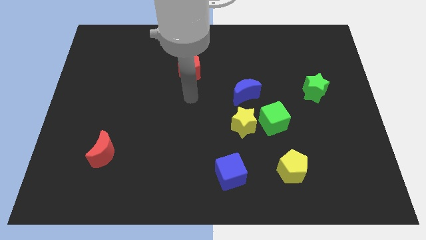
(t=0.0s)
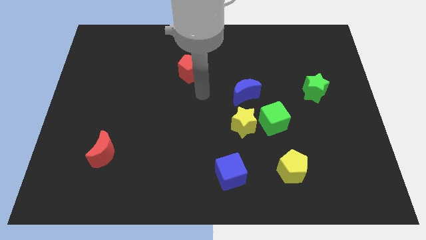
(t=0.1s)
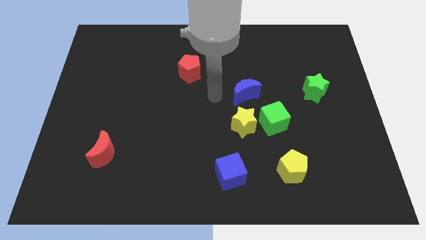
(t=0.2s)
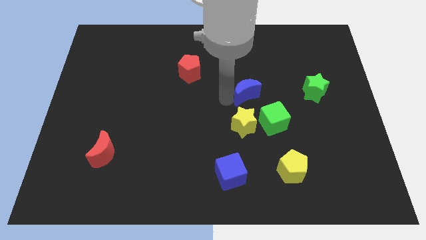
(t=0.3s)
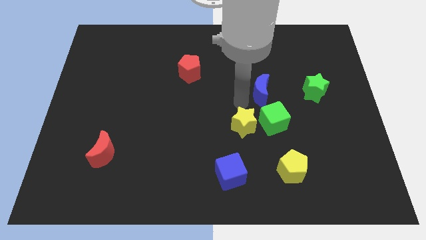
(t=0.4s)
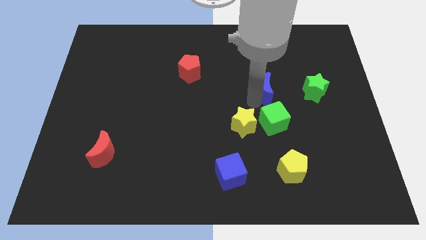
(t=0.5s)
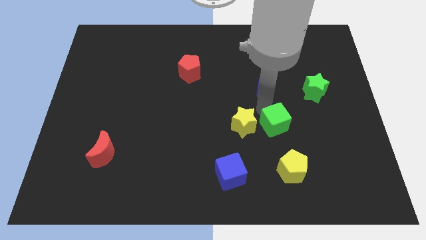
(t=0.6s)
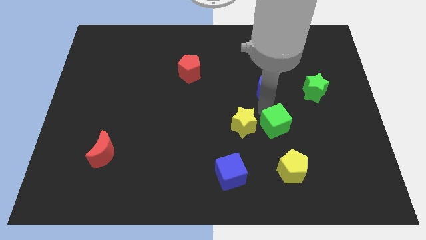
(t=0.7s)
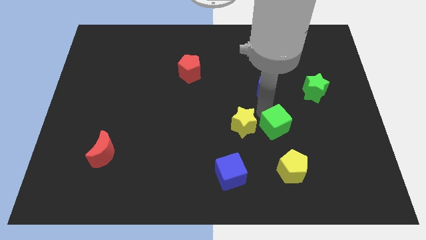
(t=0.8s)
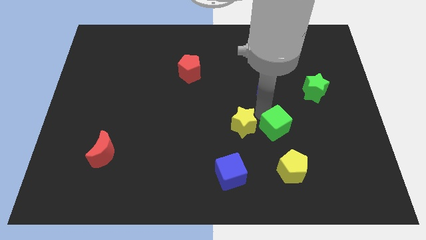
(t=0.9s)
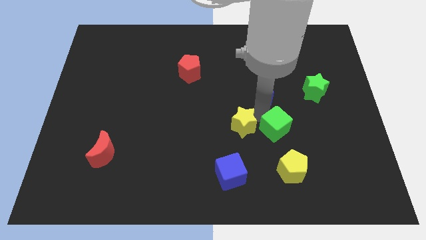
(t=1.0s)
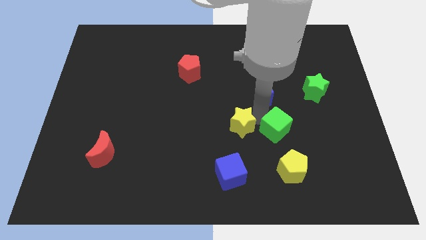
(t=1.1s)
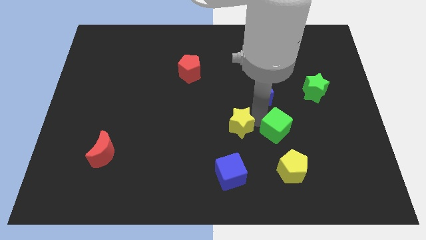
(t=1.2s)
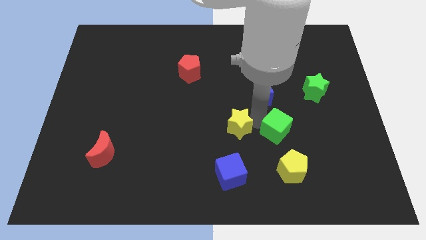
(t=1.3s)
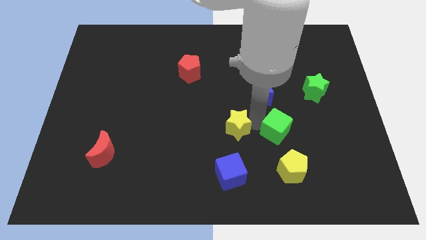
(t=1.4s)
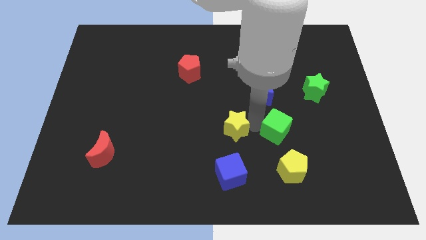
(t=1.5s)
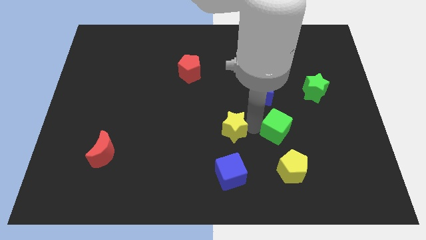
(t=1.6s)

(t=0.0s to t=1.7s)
move the yellow star away from the green cube and blue moon

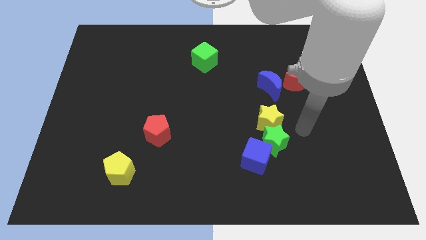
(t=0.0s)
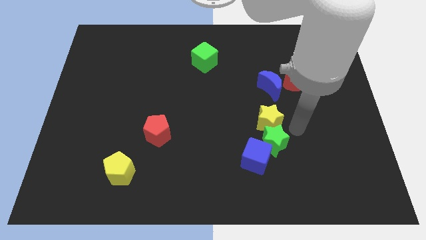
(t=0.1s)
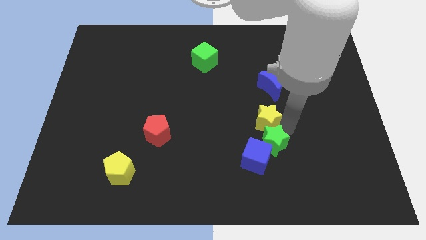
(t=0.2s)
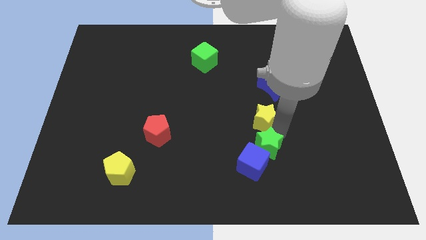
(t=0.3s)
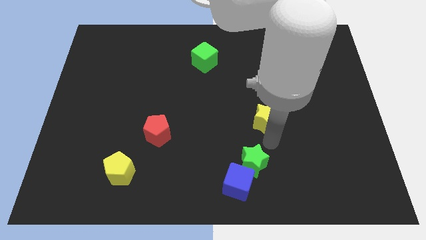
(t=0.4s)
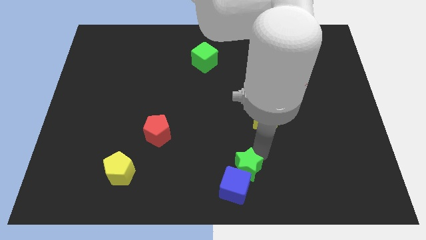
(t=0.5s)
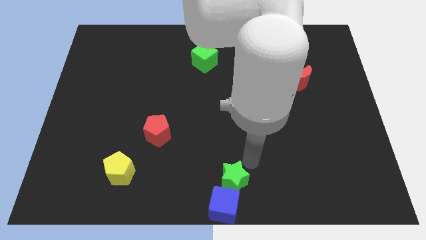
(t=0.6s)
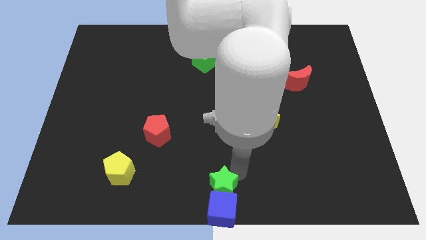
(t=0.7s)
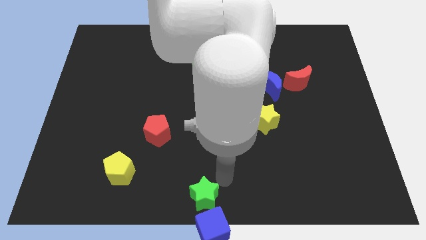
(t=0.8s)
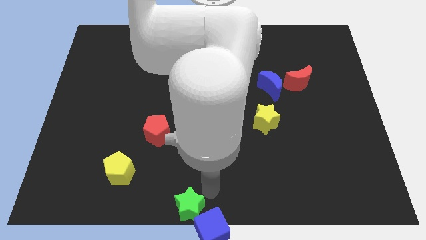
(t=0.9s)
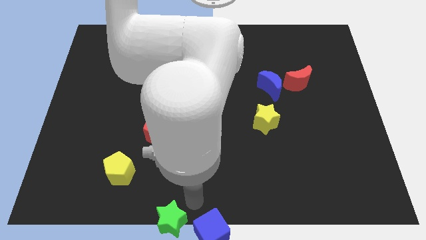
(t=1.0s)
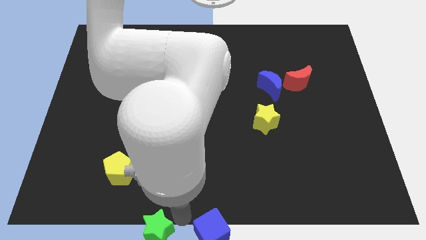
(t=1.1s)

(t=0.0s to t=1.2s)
pull the blue cube apart from the green star

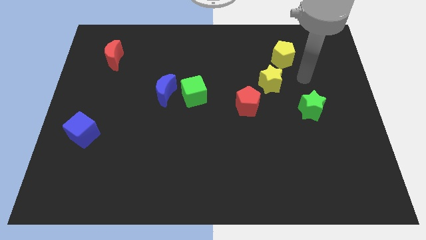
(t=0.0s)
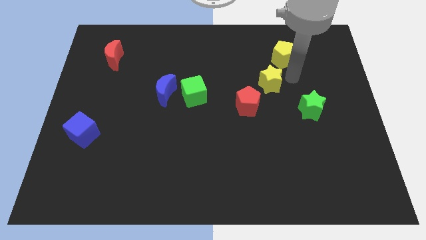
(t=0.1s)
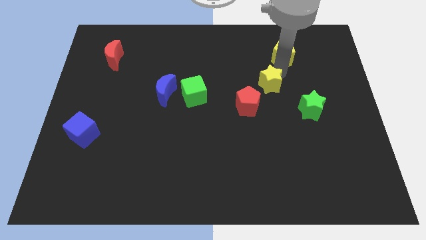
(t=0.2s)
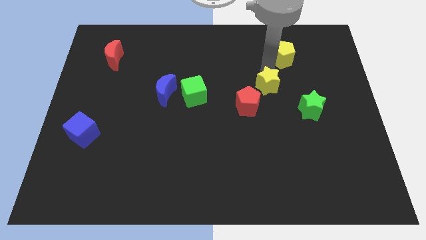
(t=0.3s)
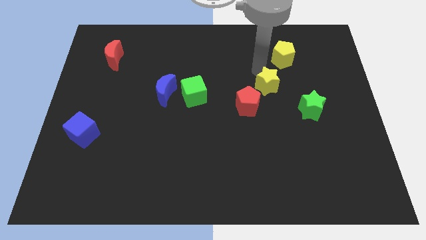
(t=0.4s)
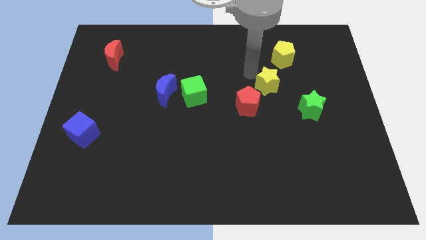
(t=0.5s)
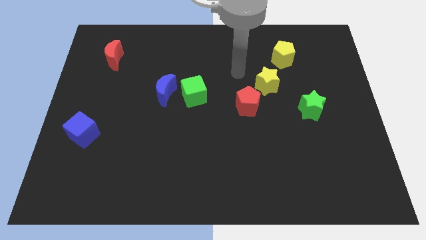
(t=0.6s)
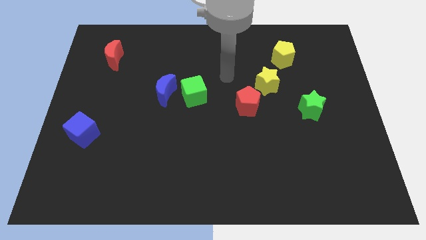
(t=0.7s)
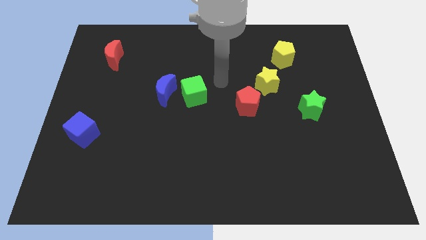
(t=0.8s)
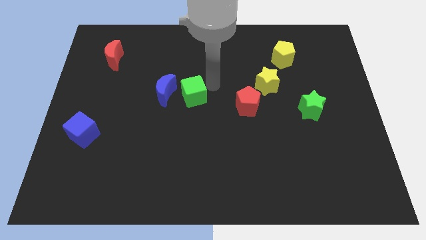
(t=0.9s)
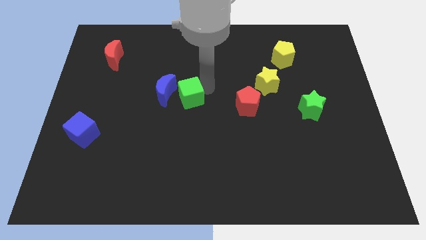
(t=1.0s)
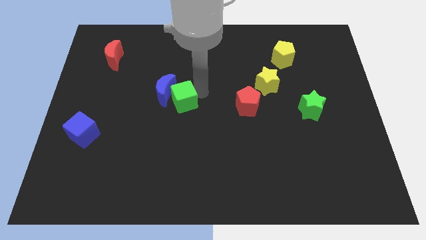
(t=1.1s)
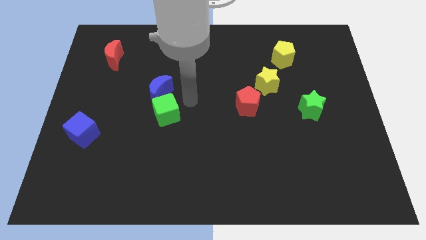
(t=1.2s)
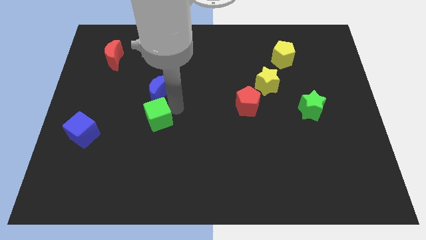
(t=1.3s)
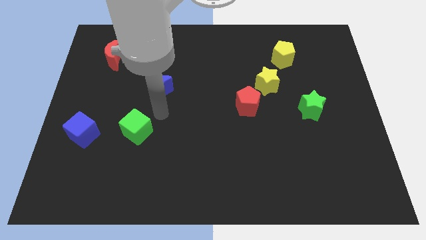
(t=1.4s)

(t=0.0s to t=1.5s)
pull the blue moon apart from the green cube

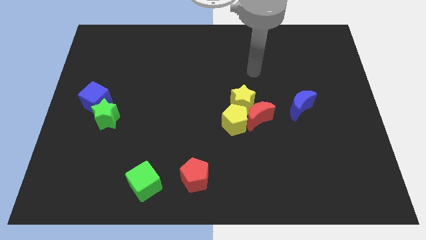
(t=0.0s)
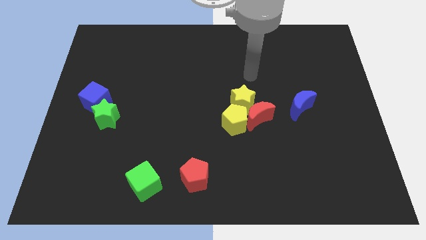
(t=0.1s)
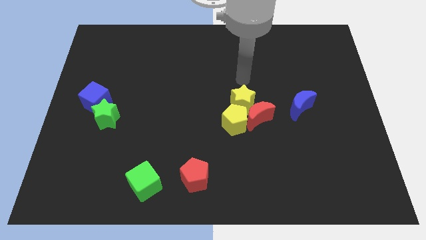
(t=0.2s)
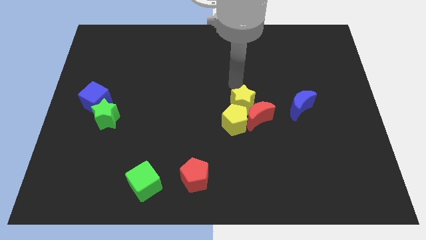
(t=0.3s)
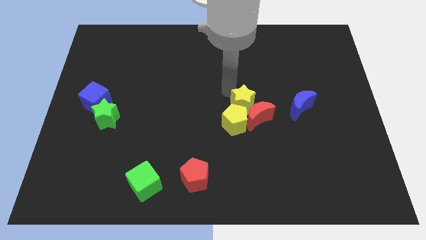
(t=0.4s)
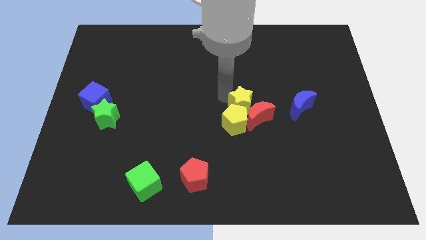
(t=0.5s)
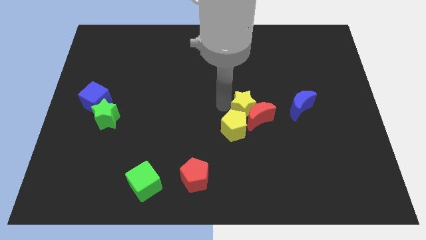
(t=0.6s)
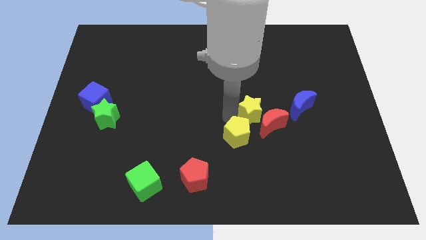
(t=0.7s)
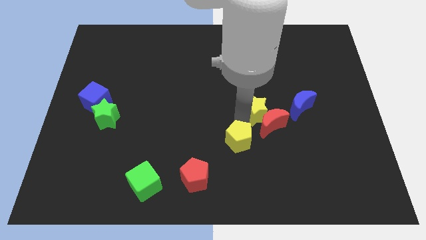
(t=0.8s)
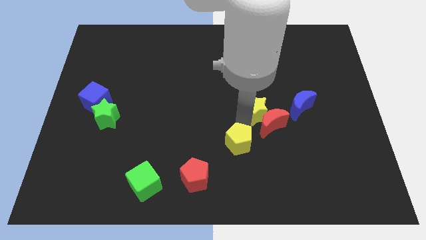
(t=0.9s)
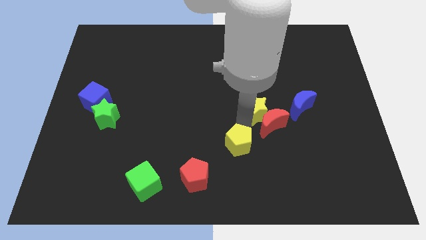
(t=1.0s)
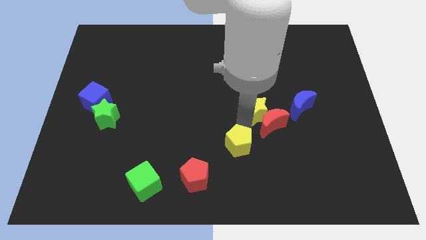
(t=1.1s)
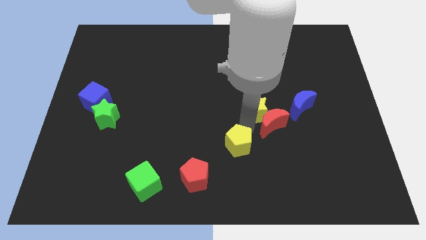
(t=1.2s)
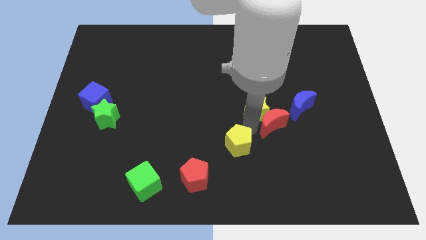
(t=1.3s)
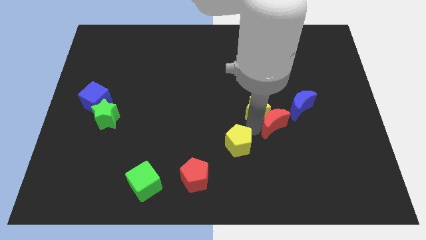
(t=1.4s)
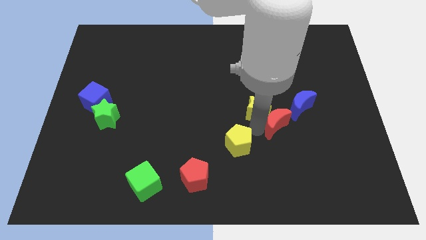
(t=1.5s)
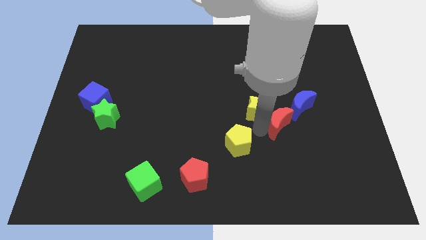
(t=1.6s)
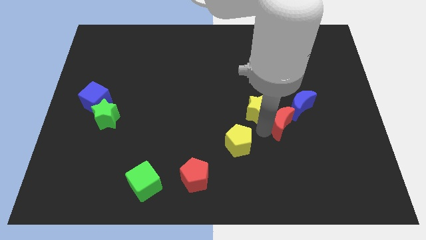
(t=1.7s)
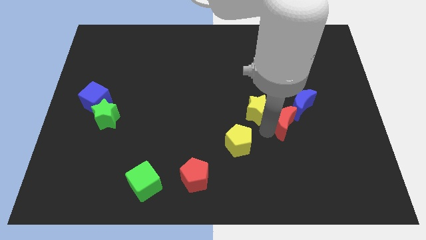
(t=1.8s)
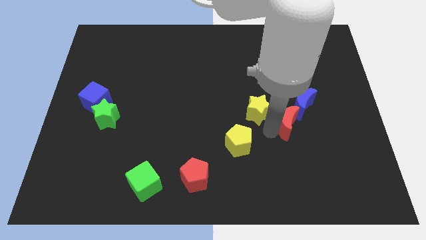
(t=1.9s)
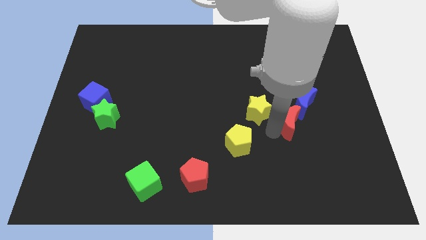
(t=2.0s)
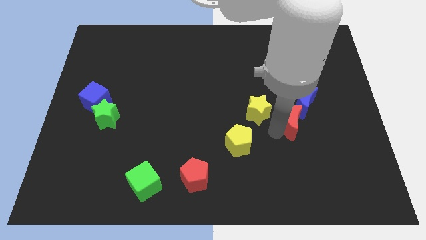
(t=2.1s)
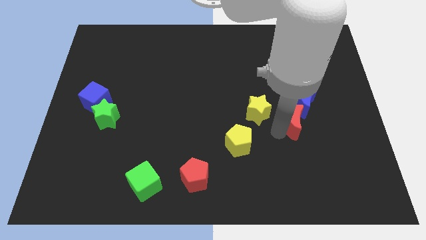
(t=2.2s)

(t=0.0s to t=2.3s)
separate the red moon from the yellow star and yellow pentagon

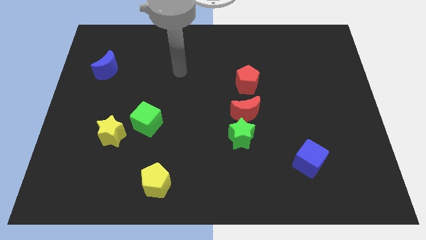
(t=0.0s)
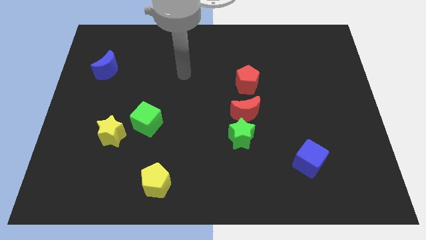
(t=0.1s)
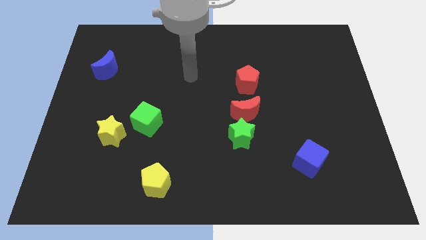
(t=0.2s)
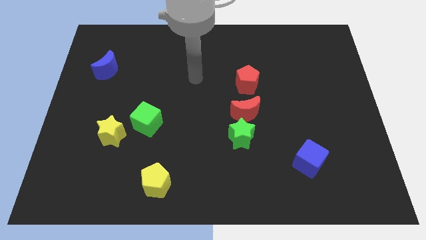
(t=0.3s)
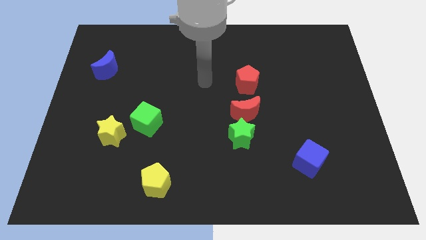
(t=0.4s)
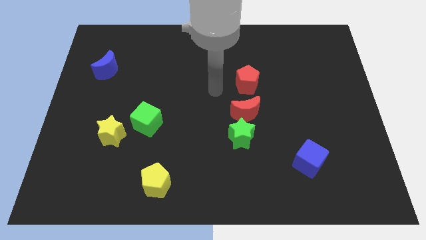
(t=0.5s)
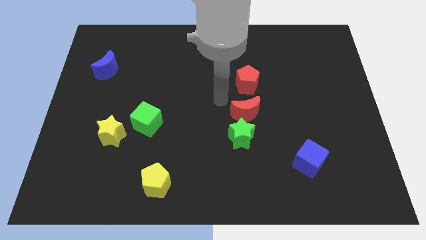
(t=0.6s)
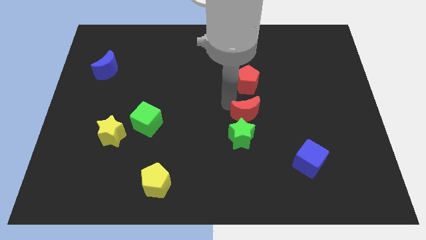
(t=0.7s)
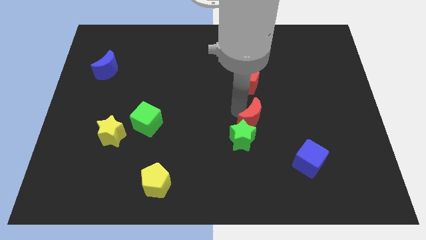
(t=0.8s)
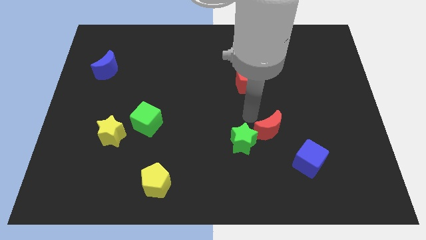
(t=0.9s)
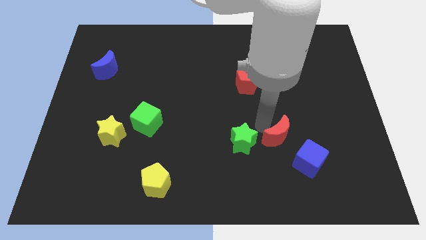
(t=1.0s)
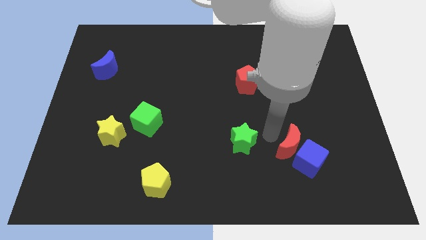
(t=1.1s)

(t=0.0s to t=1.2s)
separate the green star from the red moon

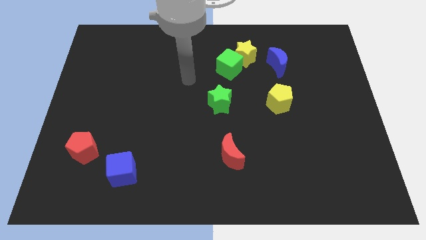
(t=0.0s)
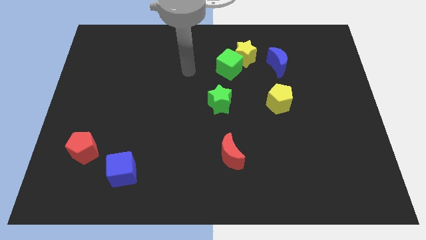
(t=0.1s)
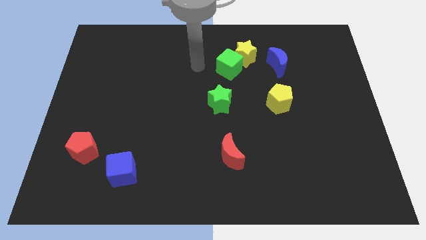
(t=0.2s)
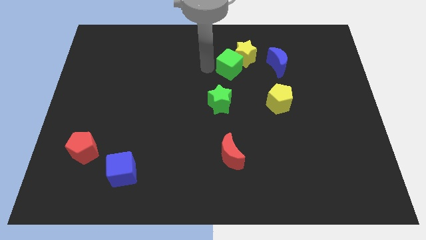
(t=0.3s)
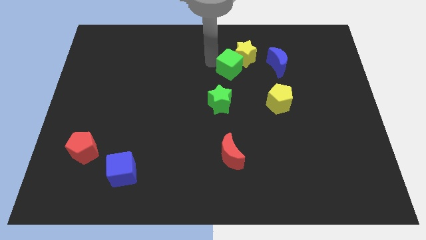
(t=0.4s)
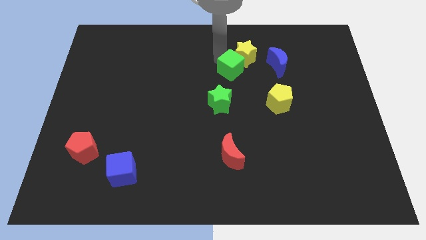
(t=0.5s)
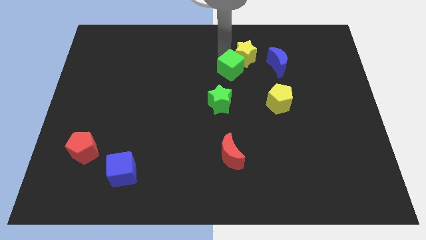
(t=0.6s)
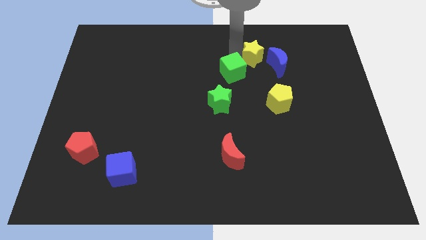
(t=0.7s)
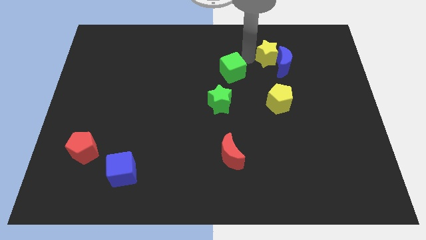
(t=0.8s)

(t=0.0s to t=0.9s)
move the green cube away from the yellow star

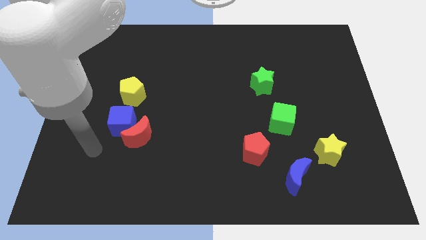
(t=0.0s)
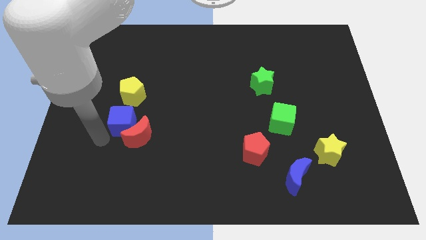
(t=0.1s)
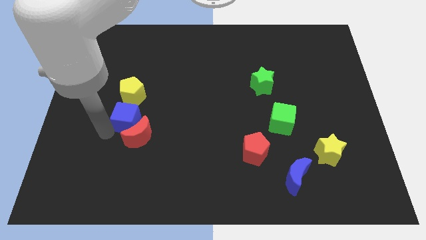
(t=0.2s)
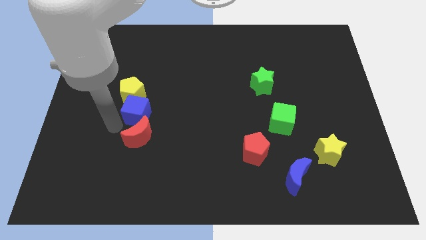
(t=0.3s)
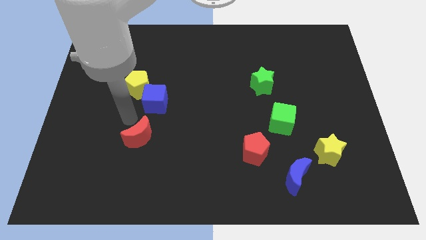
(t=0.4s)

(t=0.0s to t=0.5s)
pull the red moon apart from the blue cube
